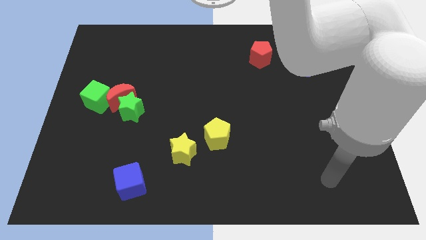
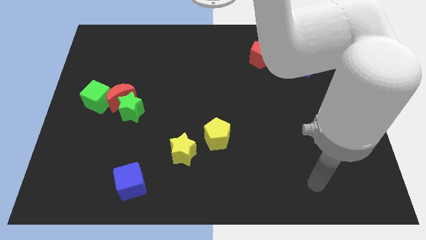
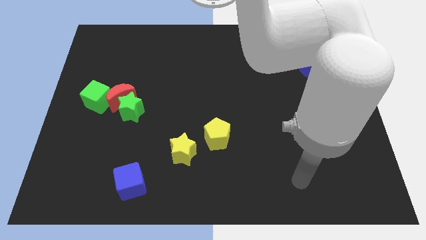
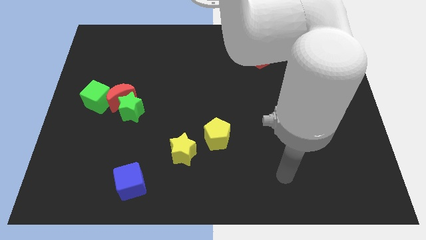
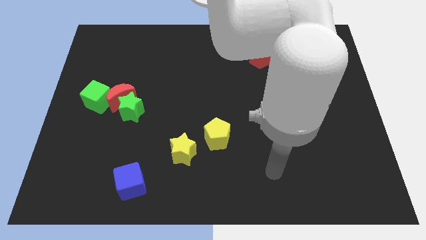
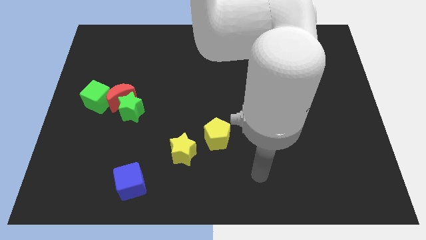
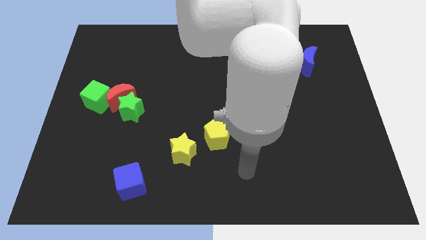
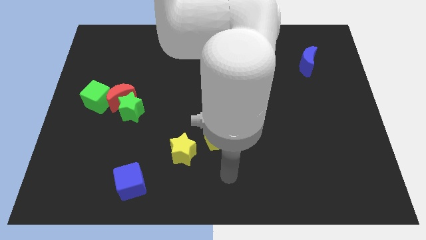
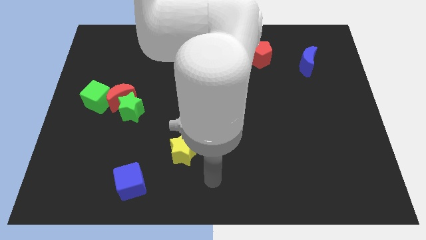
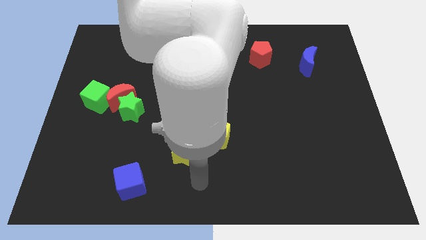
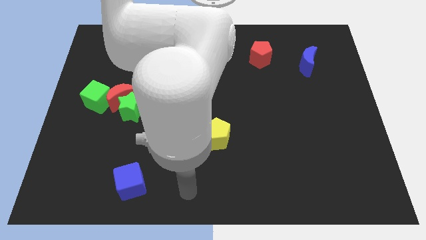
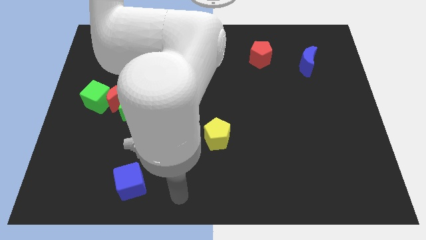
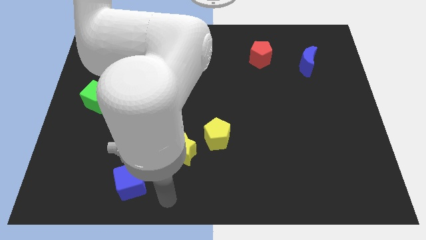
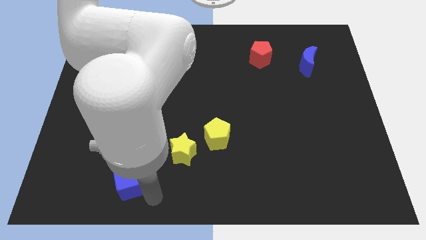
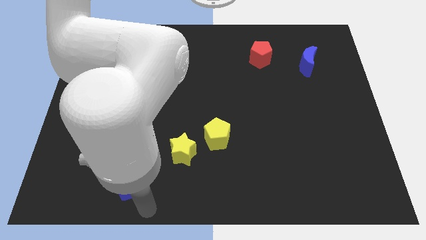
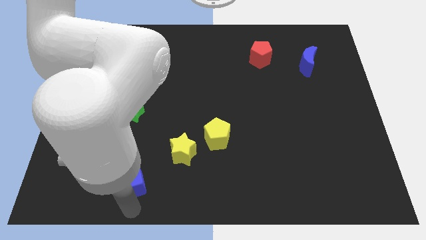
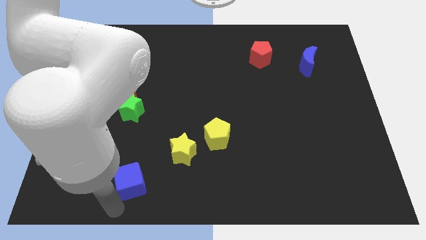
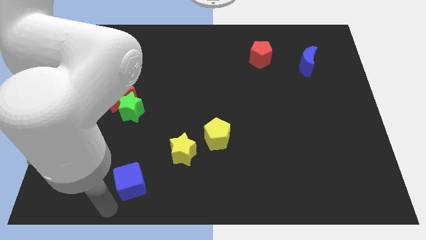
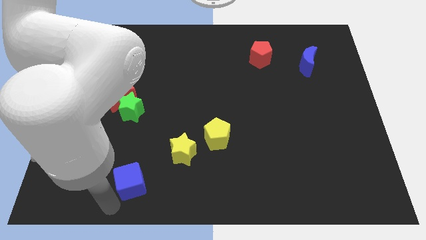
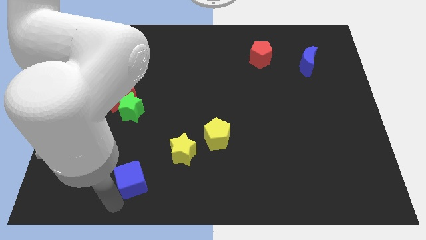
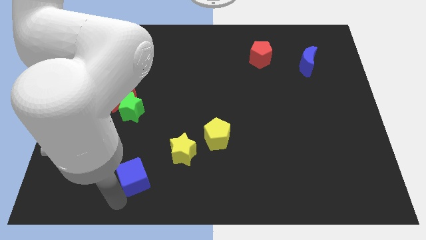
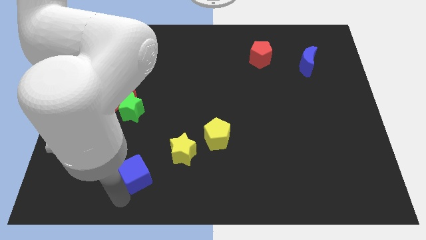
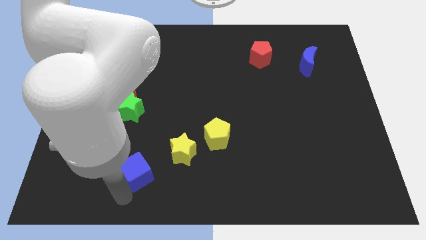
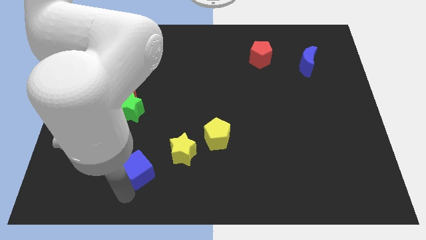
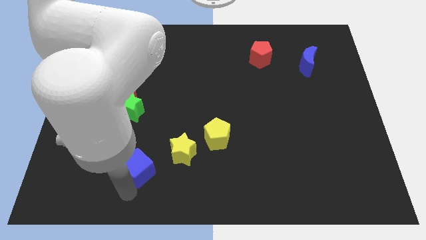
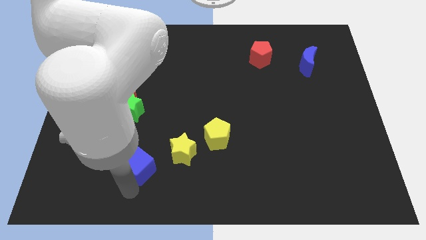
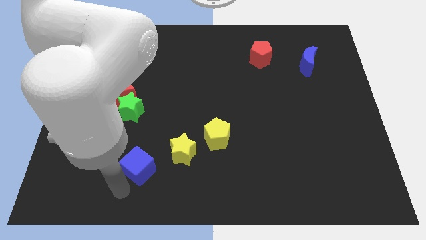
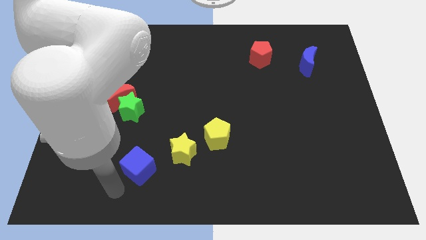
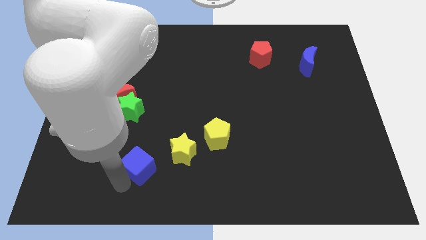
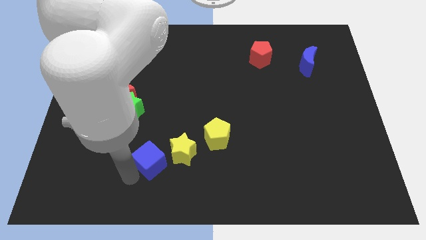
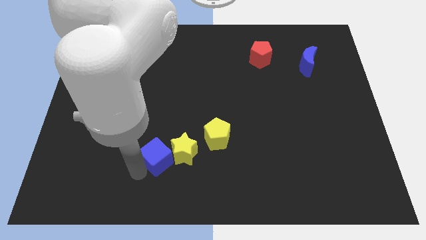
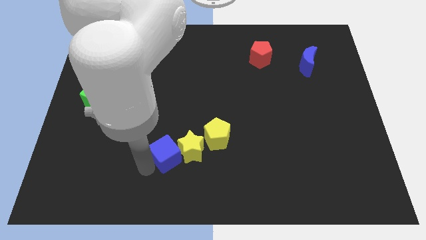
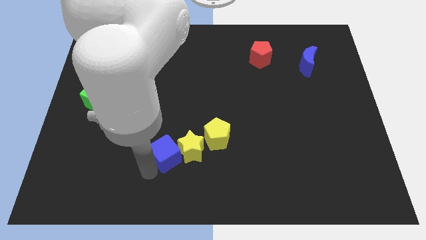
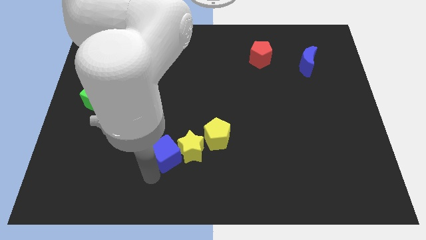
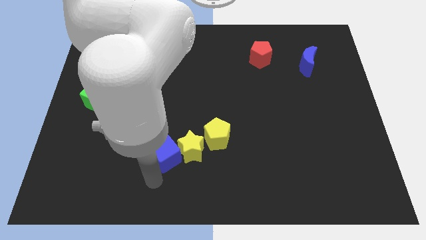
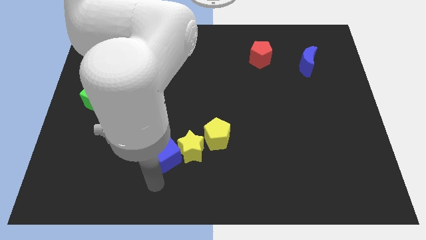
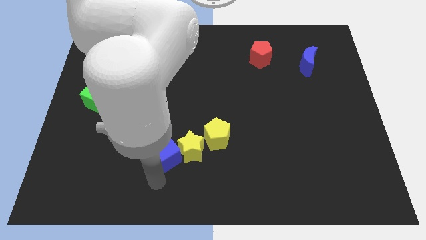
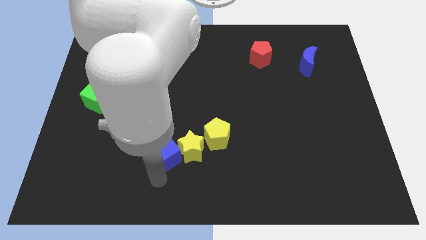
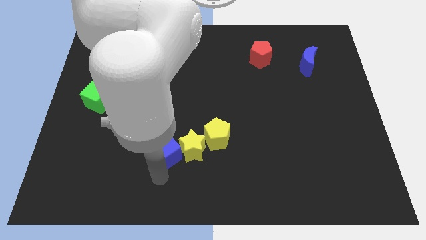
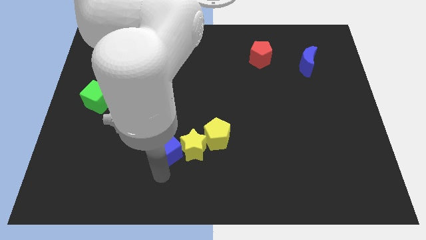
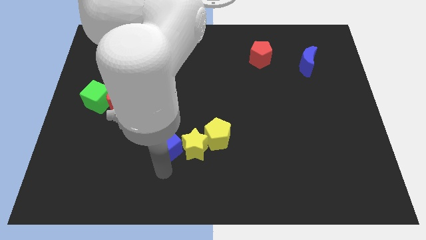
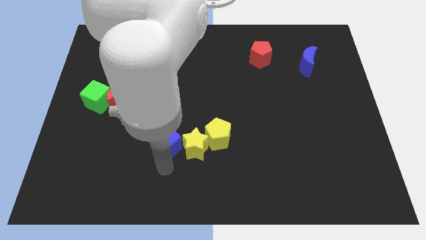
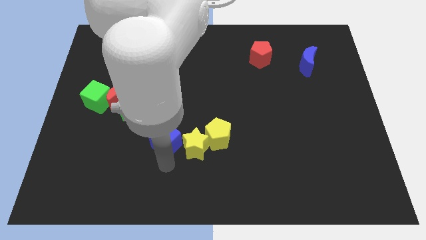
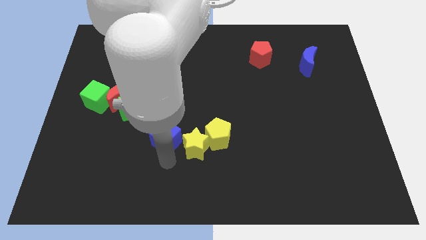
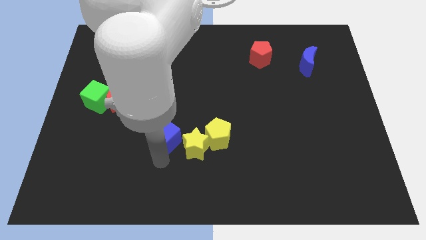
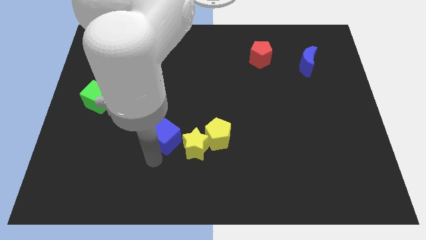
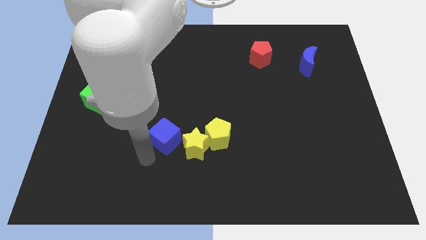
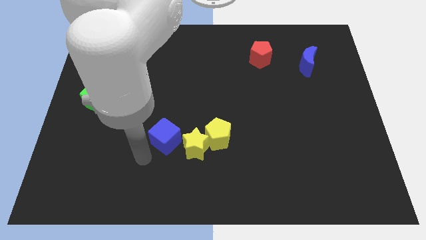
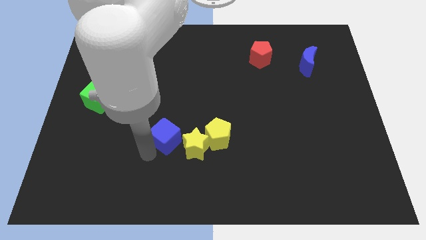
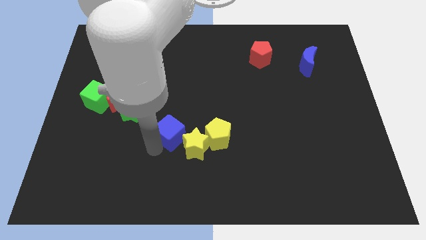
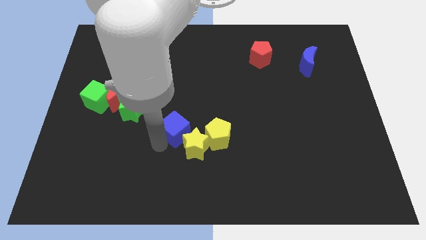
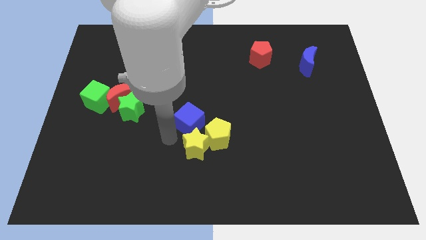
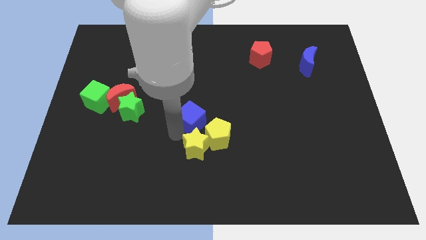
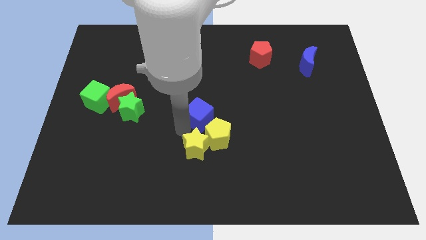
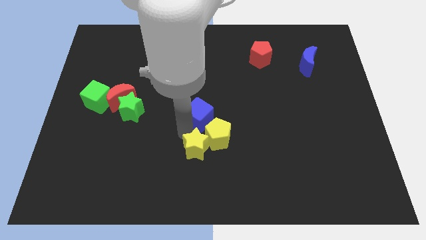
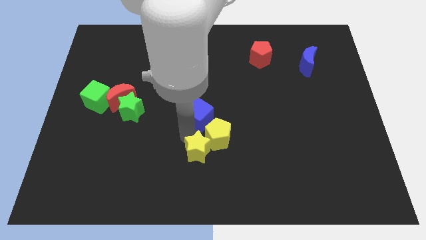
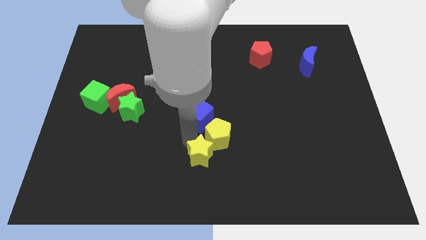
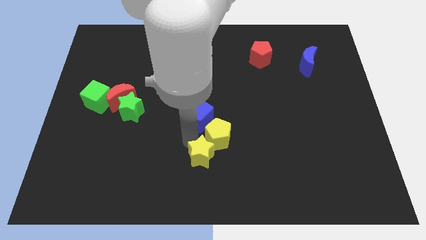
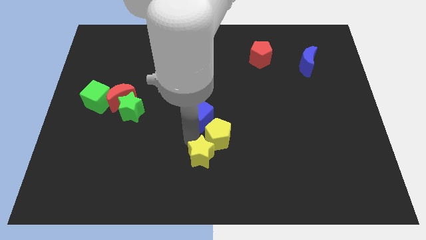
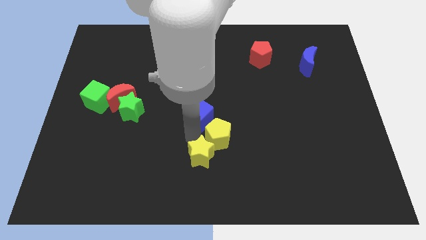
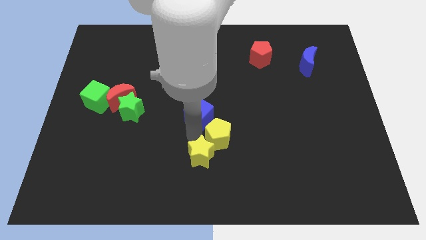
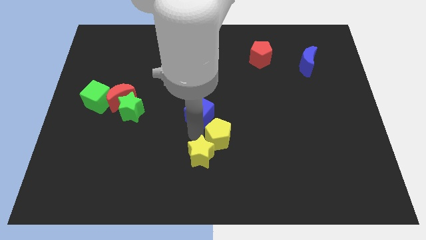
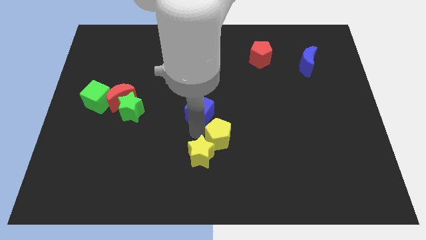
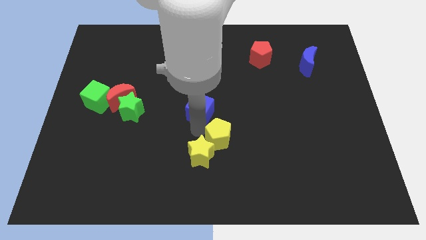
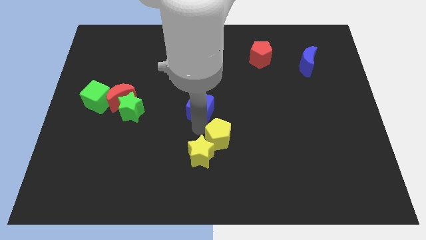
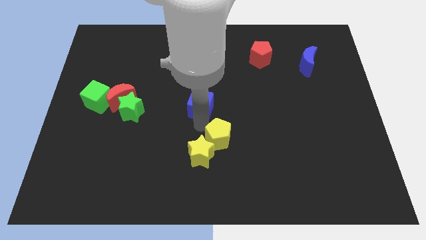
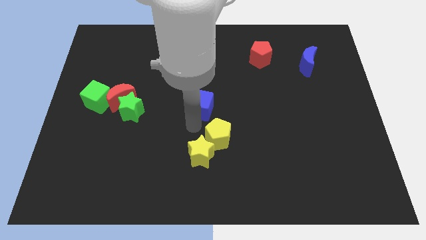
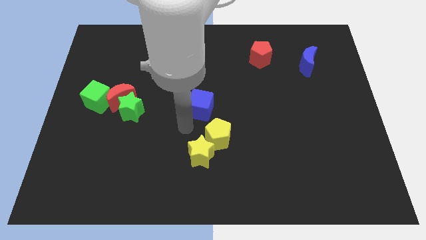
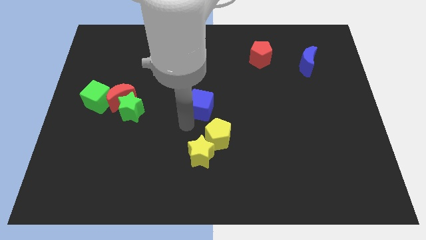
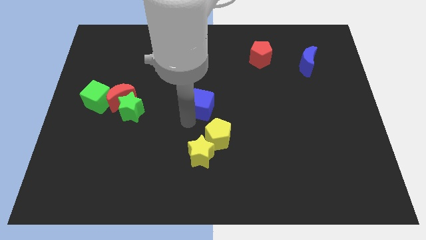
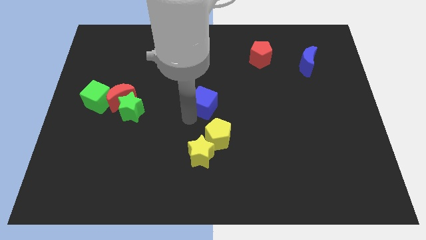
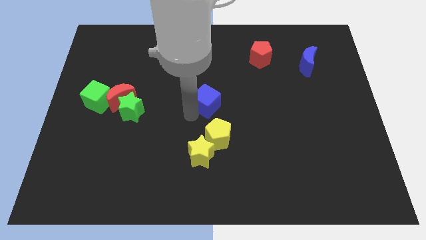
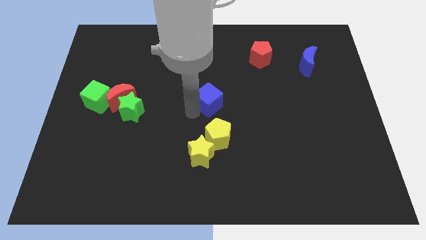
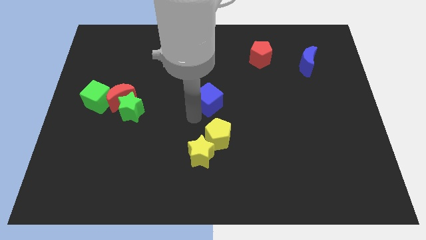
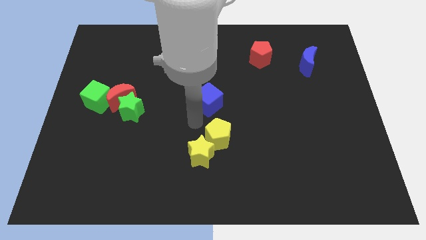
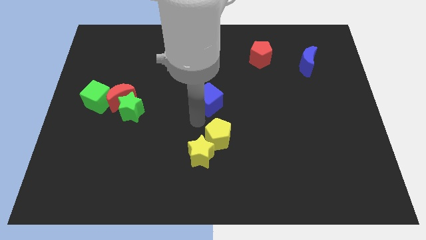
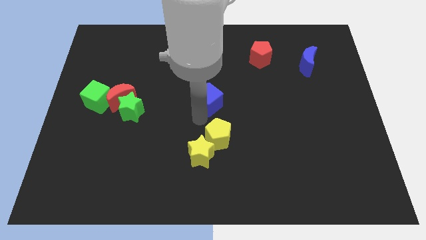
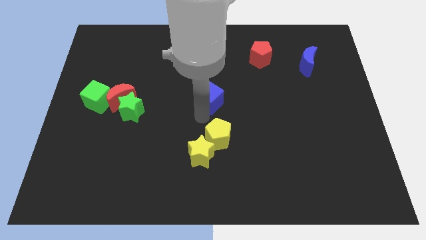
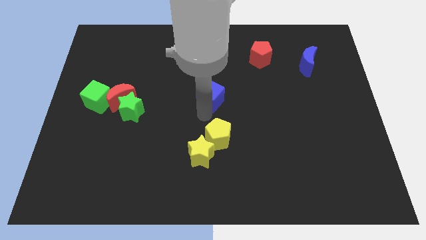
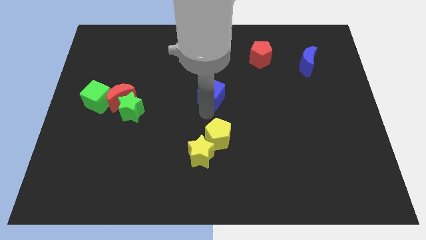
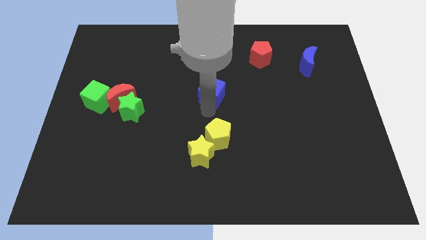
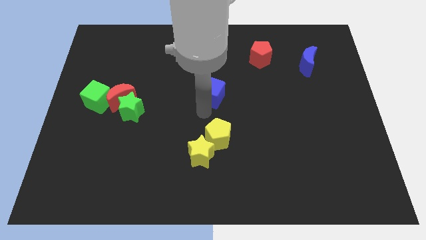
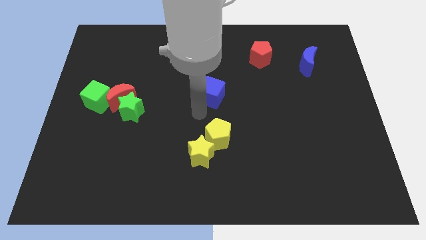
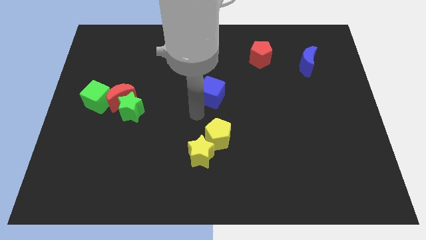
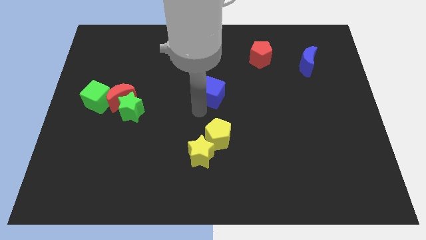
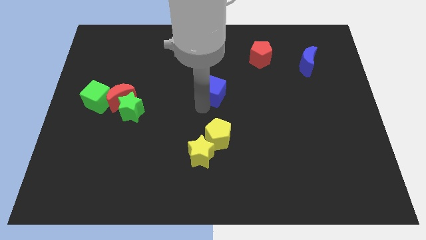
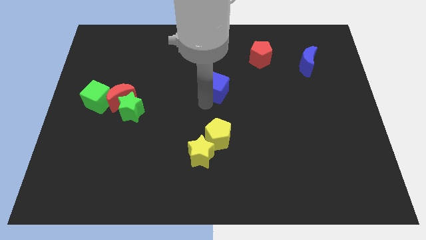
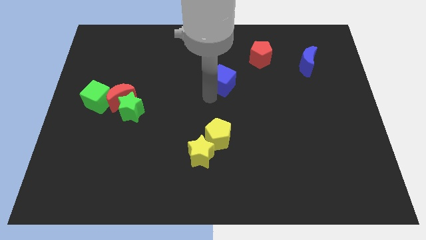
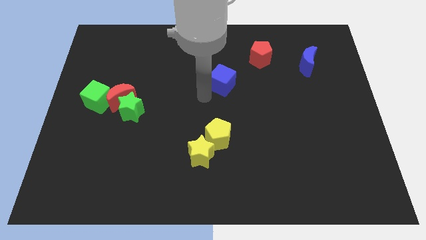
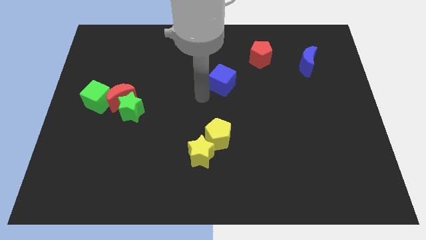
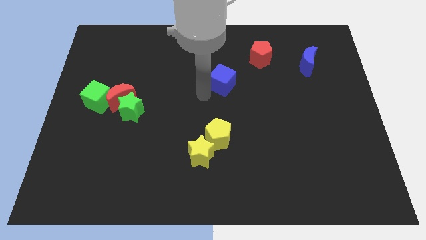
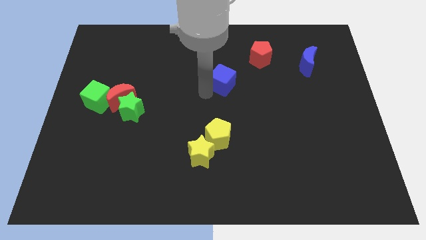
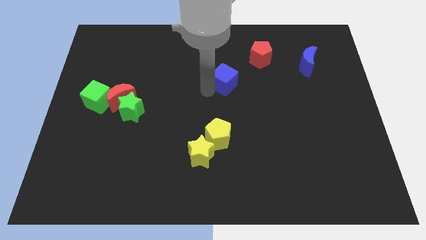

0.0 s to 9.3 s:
slide the blue cube to the bottom left side of the red pentagon
